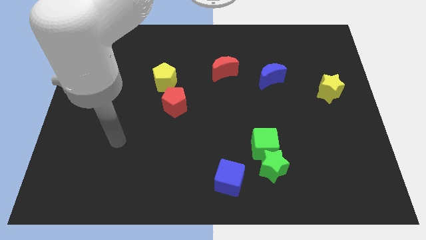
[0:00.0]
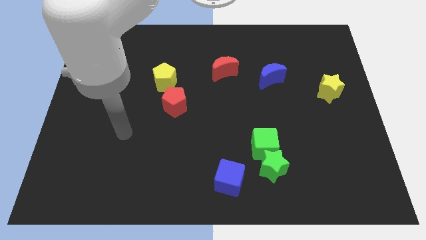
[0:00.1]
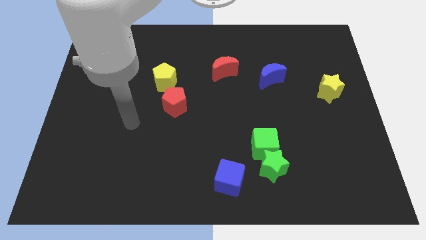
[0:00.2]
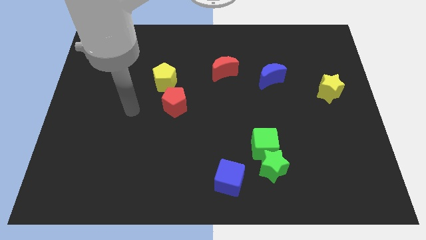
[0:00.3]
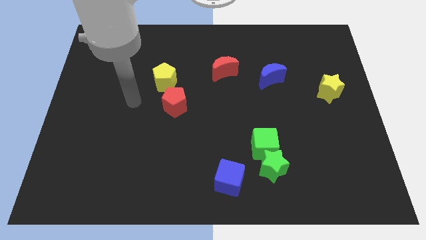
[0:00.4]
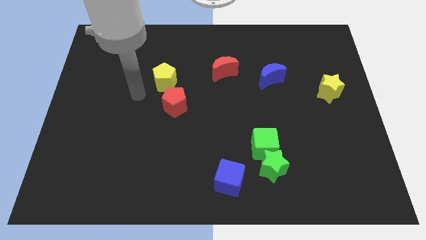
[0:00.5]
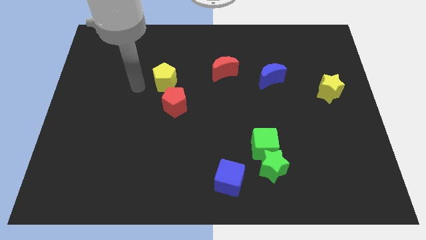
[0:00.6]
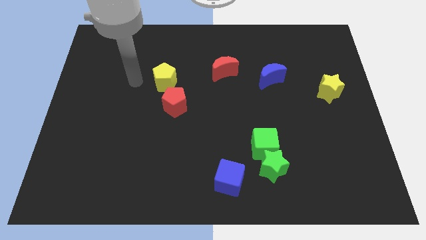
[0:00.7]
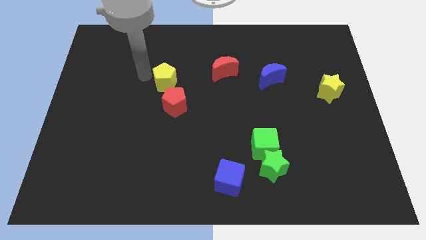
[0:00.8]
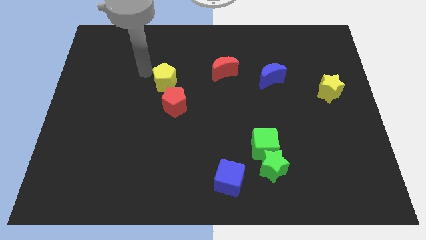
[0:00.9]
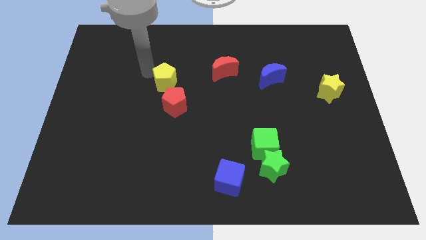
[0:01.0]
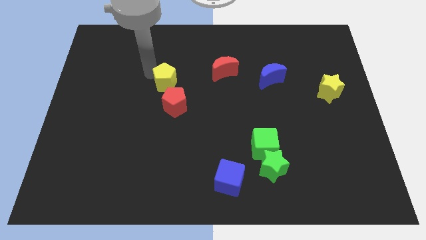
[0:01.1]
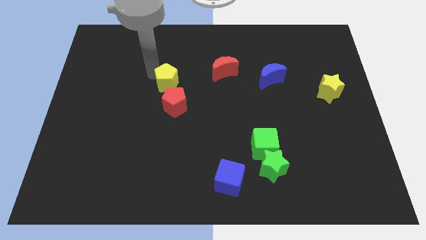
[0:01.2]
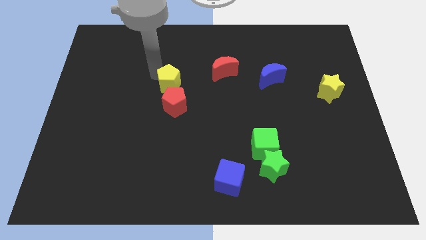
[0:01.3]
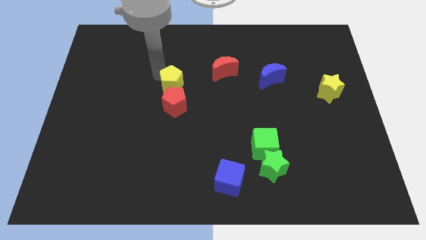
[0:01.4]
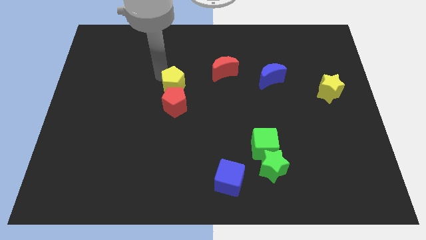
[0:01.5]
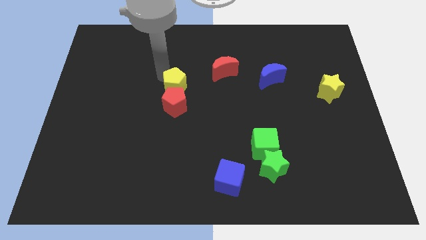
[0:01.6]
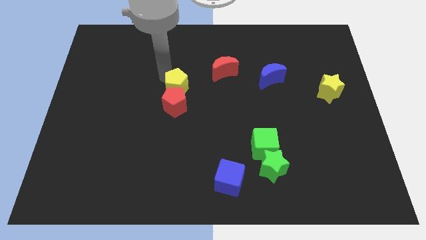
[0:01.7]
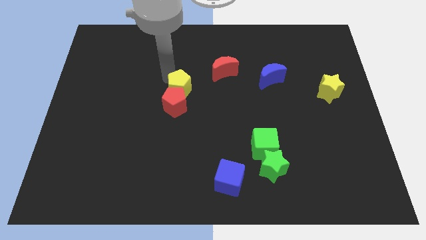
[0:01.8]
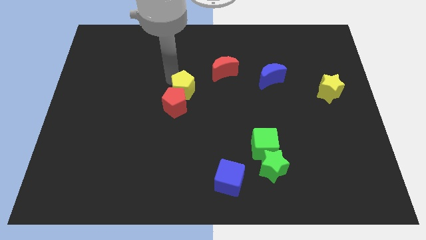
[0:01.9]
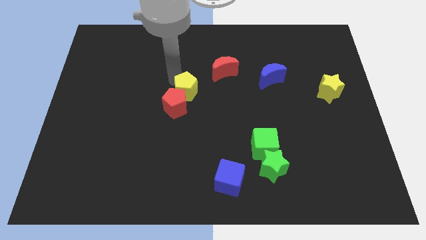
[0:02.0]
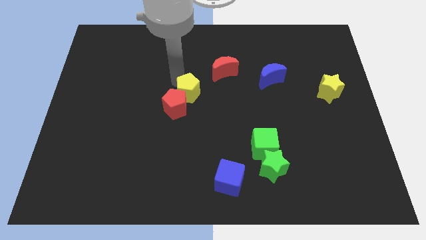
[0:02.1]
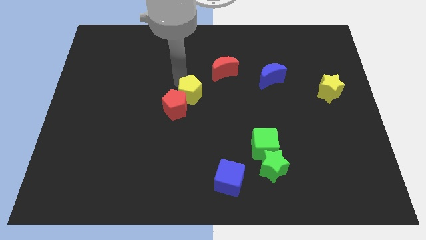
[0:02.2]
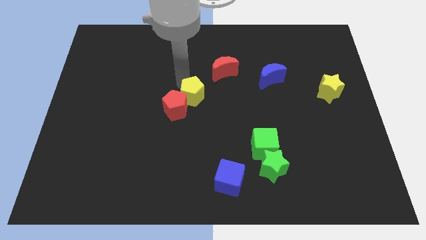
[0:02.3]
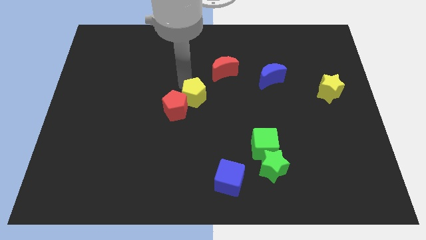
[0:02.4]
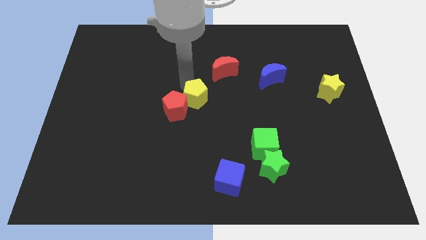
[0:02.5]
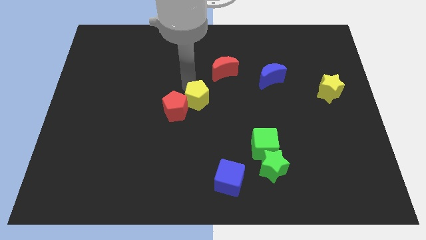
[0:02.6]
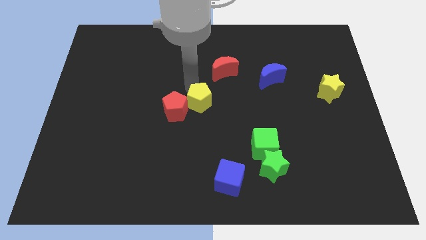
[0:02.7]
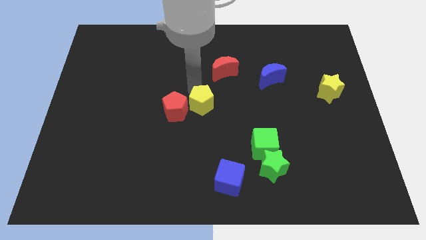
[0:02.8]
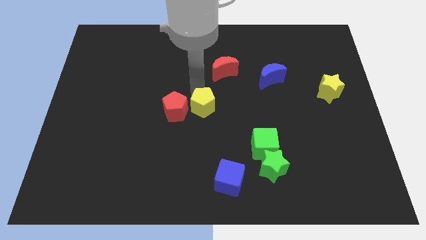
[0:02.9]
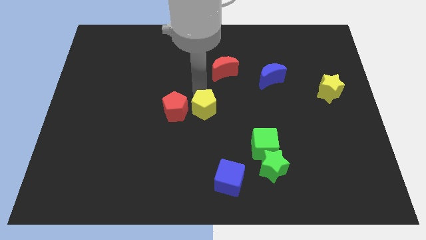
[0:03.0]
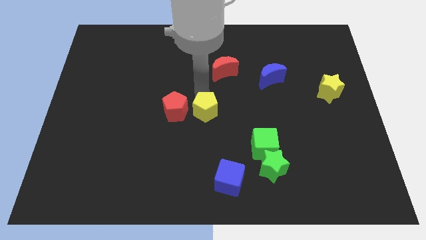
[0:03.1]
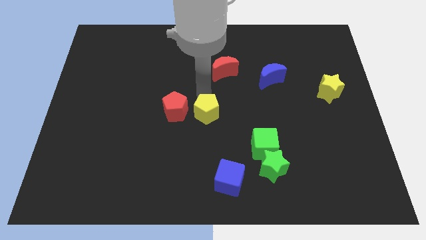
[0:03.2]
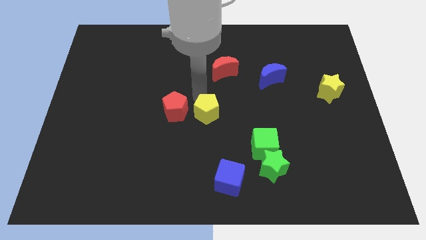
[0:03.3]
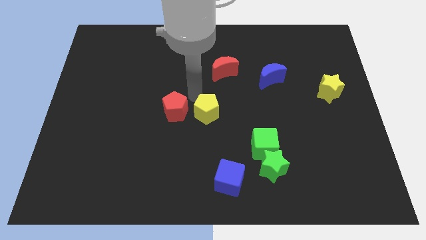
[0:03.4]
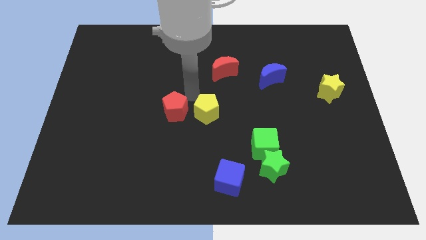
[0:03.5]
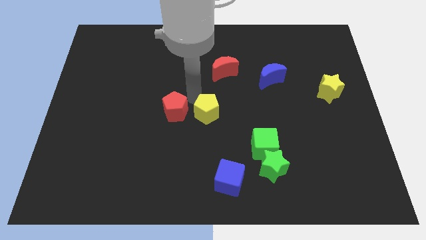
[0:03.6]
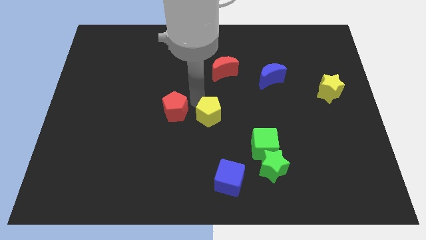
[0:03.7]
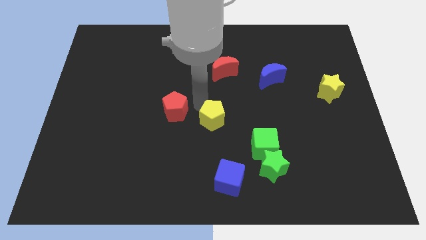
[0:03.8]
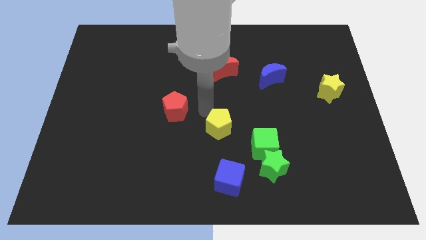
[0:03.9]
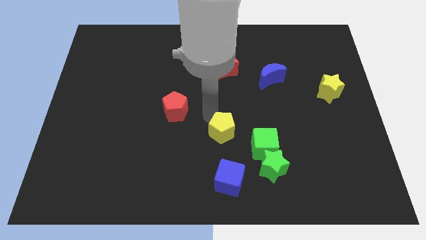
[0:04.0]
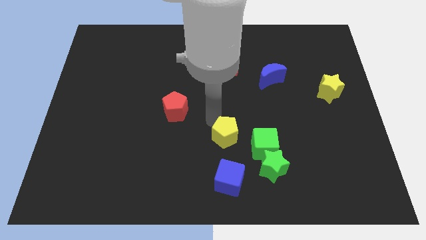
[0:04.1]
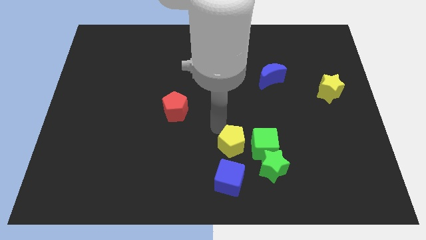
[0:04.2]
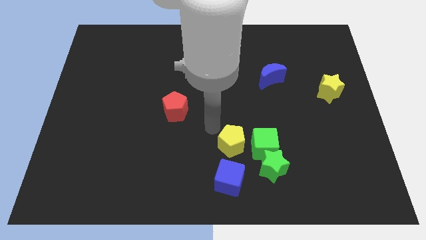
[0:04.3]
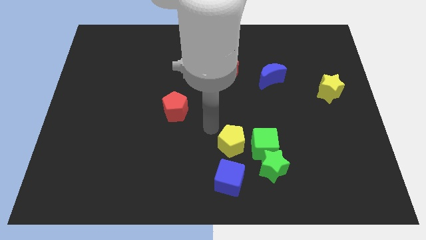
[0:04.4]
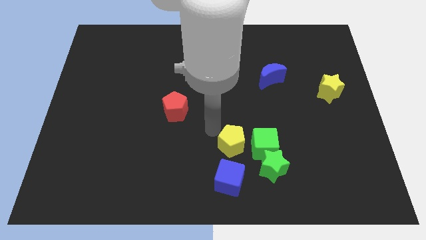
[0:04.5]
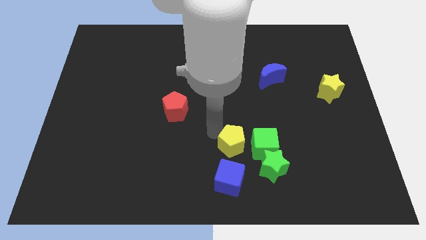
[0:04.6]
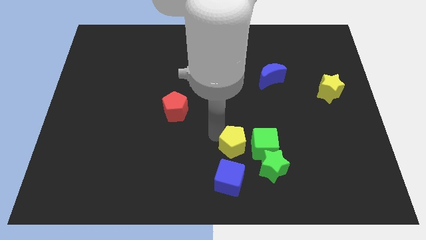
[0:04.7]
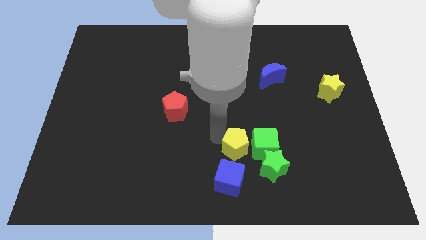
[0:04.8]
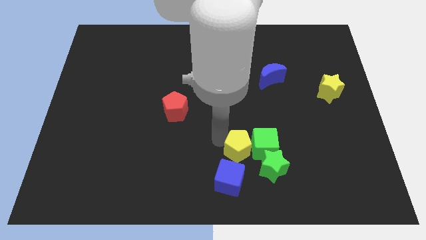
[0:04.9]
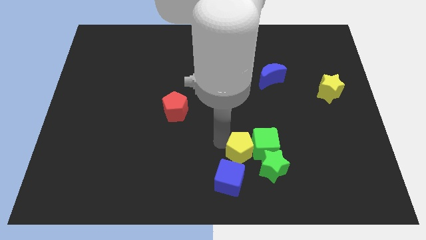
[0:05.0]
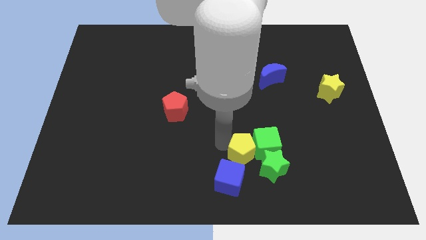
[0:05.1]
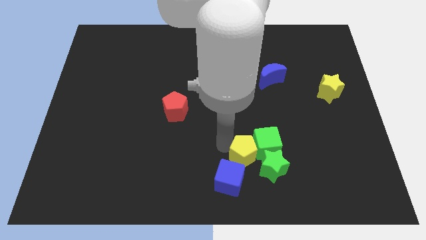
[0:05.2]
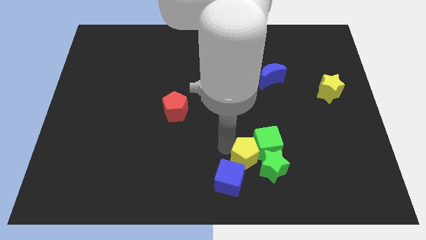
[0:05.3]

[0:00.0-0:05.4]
put the yellow pentagon towards the green star

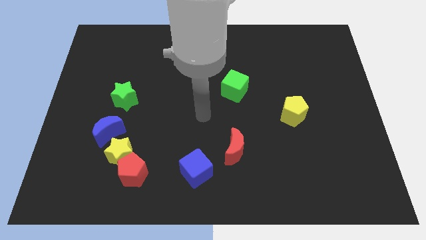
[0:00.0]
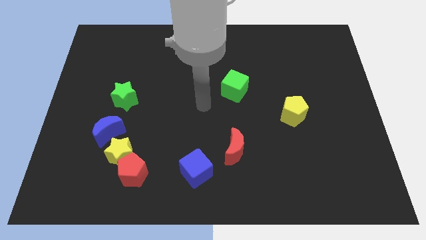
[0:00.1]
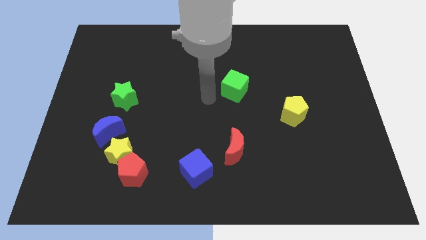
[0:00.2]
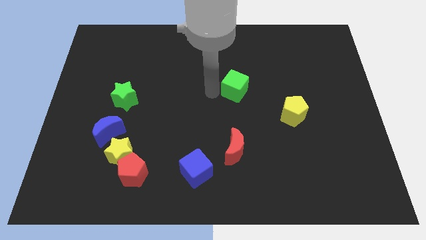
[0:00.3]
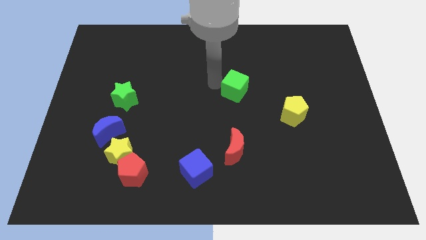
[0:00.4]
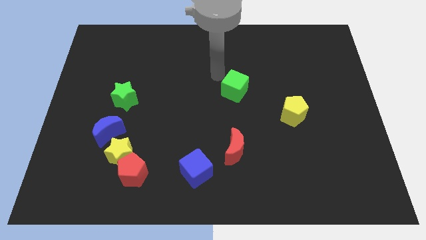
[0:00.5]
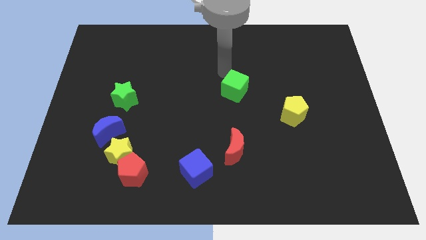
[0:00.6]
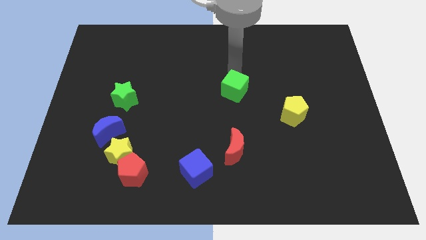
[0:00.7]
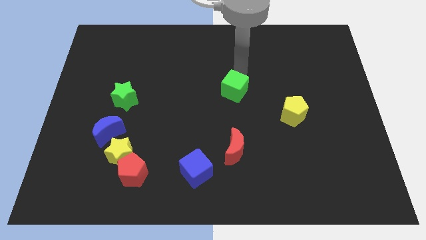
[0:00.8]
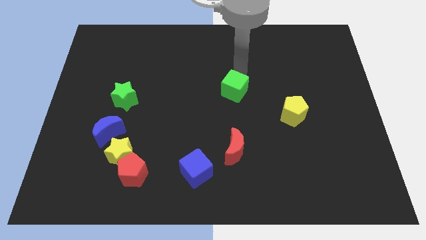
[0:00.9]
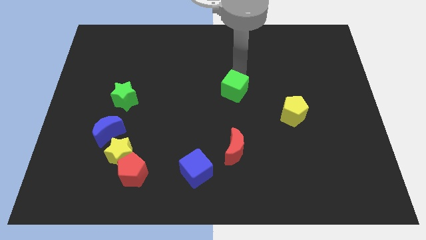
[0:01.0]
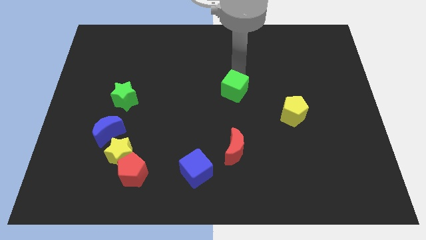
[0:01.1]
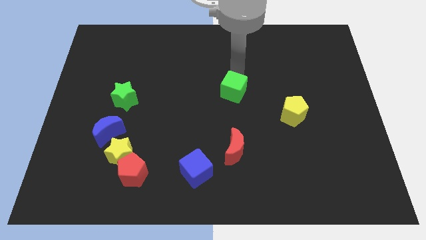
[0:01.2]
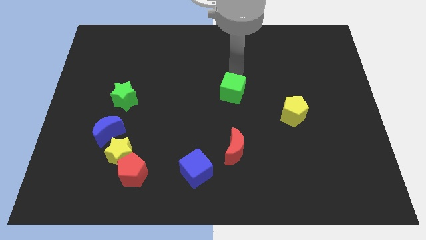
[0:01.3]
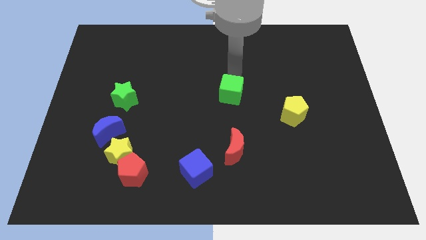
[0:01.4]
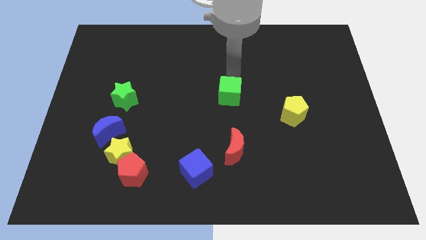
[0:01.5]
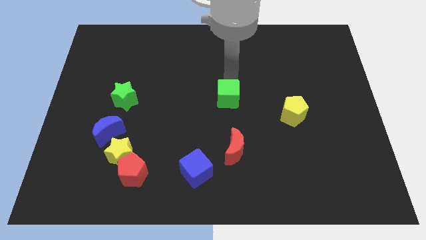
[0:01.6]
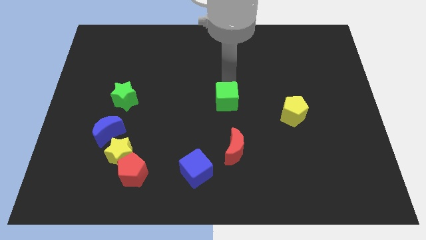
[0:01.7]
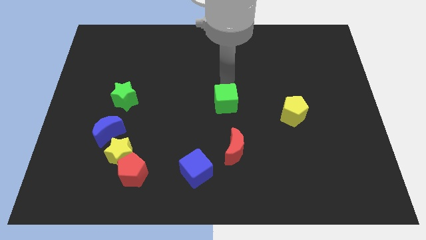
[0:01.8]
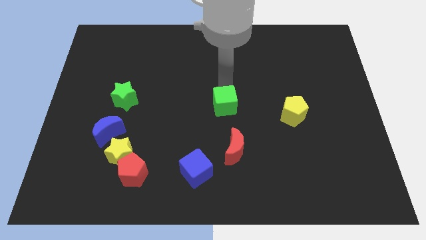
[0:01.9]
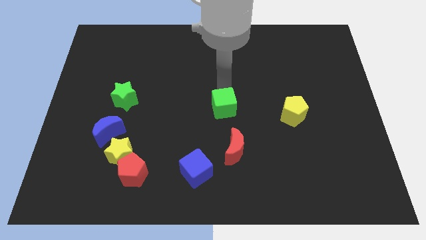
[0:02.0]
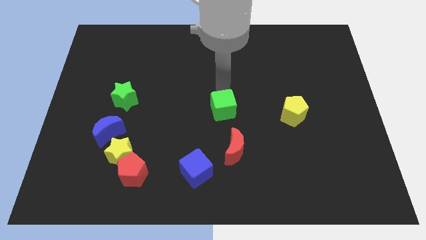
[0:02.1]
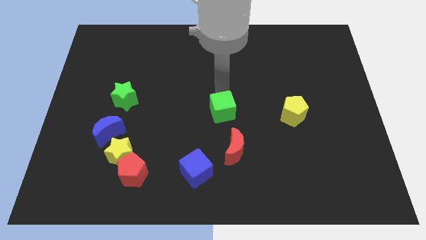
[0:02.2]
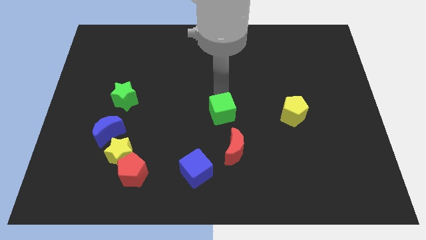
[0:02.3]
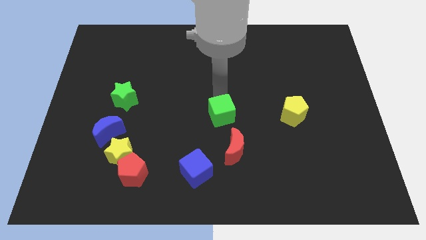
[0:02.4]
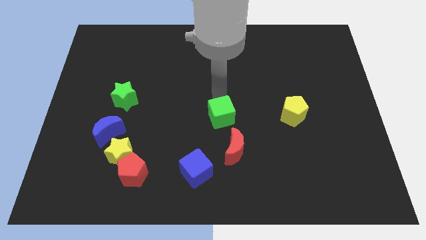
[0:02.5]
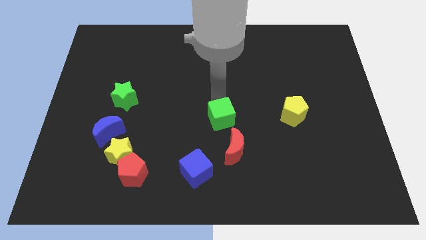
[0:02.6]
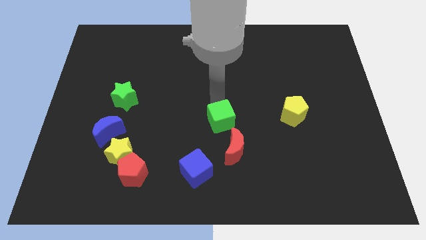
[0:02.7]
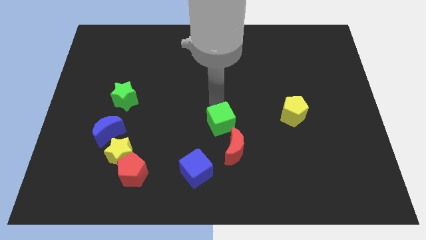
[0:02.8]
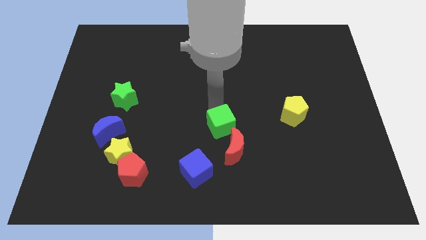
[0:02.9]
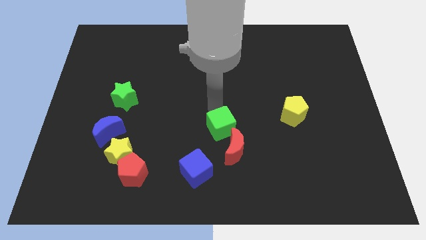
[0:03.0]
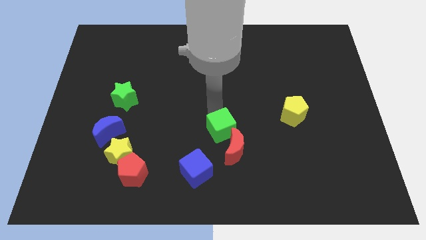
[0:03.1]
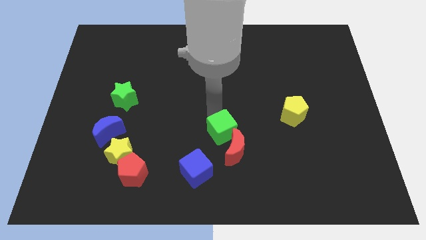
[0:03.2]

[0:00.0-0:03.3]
put the green cube to the red moon
